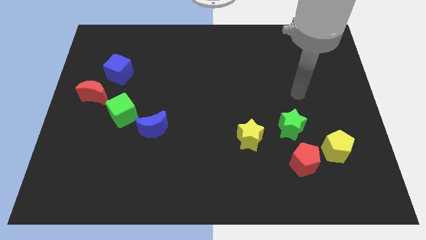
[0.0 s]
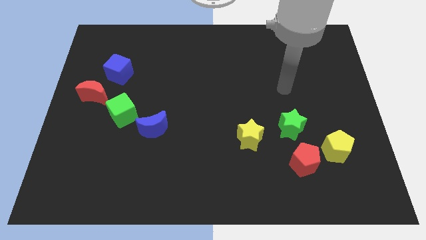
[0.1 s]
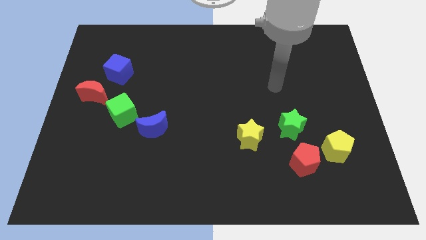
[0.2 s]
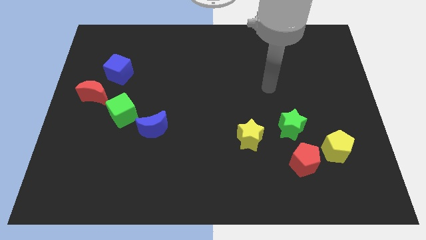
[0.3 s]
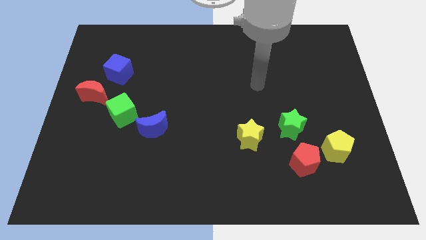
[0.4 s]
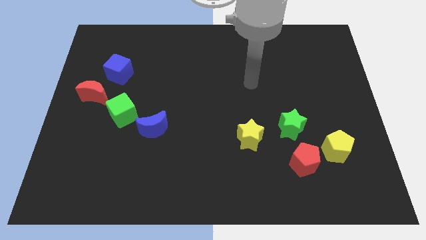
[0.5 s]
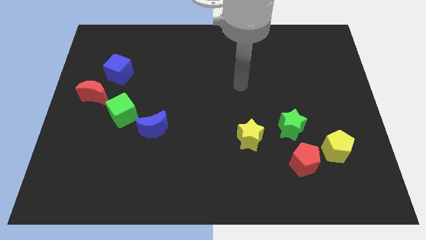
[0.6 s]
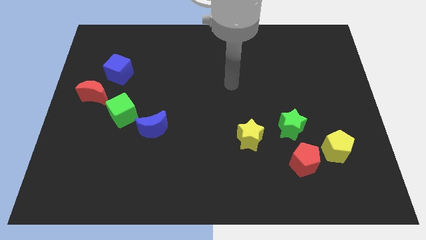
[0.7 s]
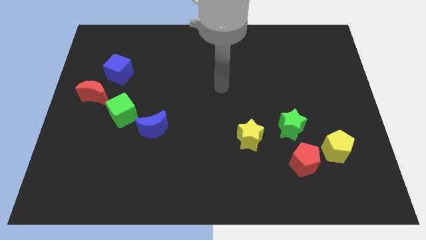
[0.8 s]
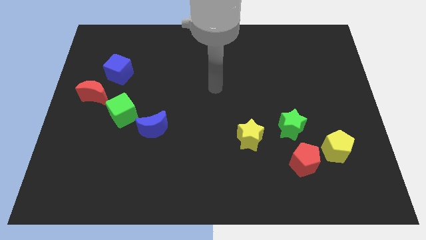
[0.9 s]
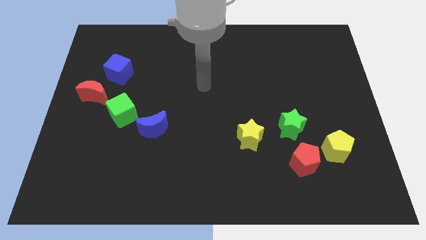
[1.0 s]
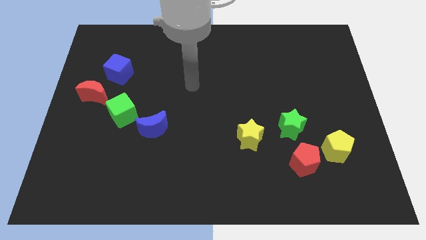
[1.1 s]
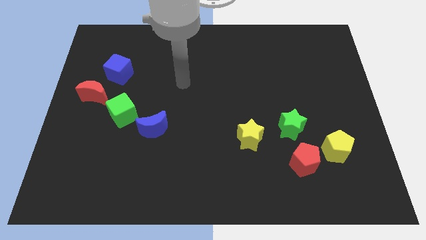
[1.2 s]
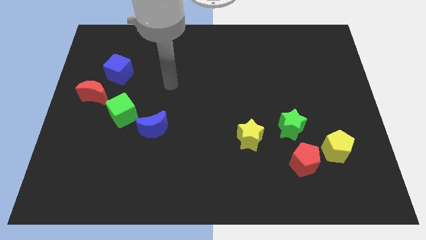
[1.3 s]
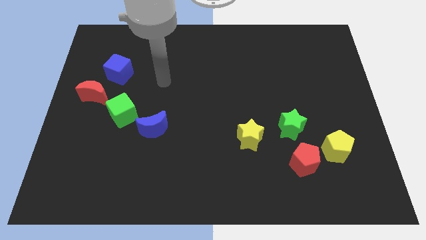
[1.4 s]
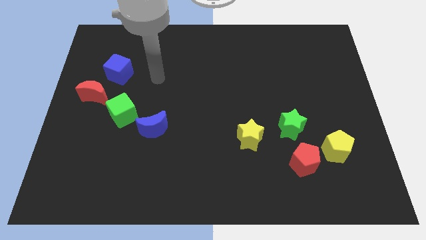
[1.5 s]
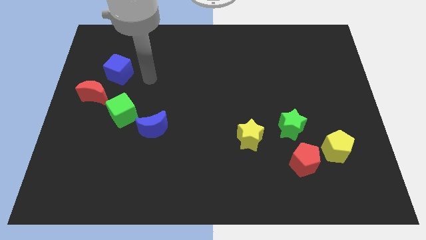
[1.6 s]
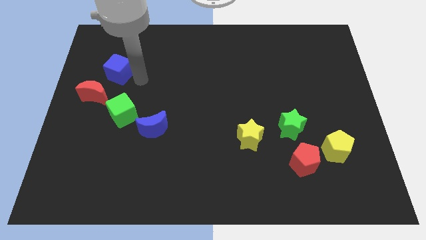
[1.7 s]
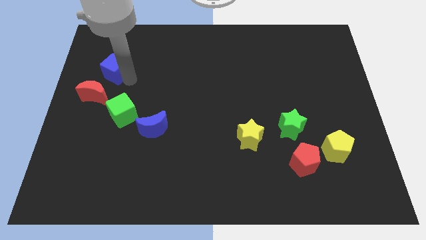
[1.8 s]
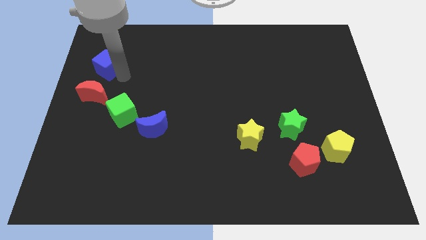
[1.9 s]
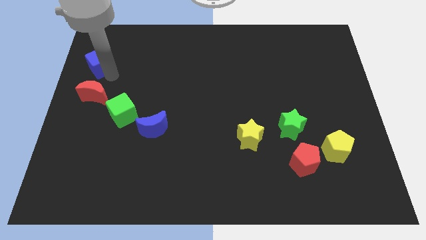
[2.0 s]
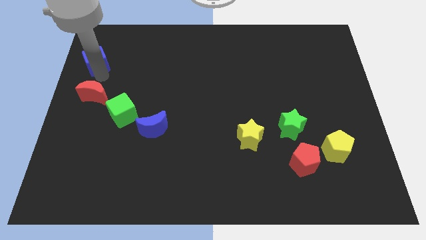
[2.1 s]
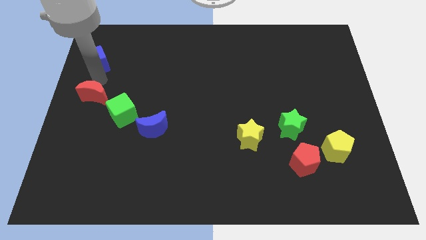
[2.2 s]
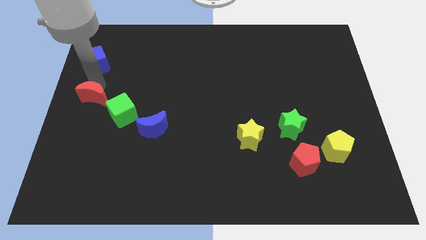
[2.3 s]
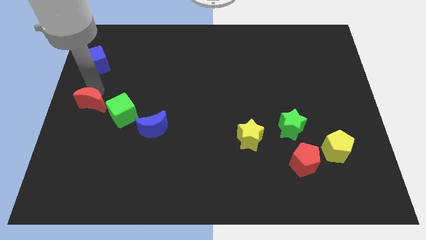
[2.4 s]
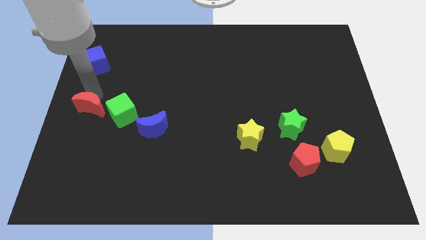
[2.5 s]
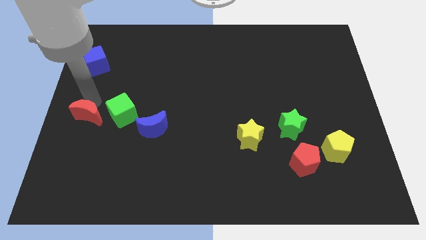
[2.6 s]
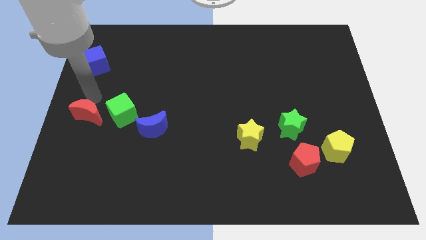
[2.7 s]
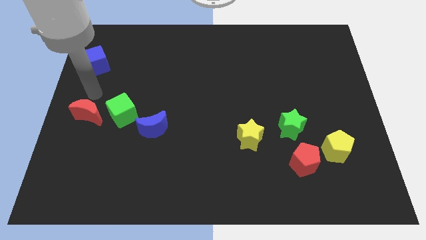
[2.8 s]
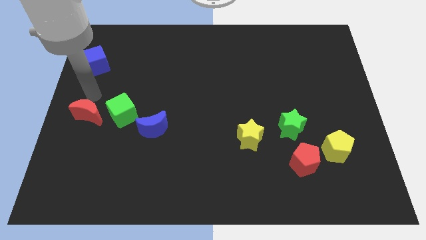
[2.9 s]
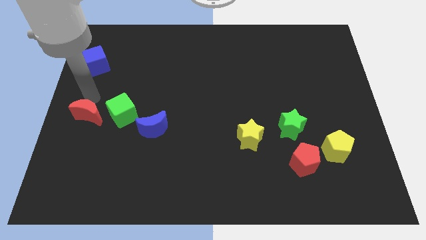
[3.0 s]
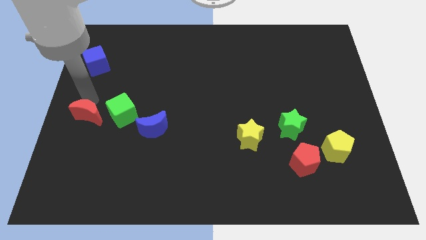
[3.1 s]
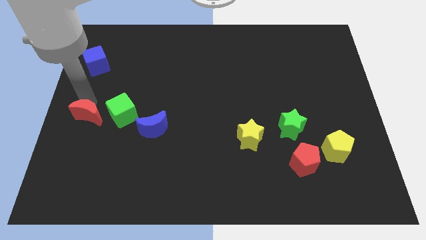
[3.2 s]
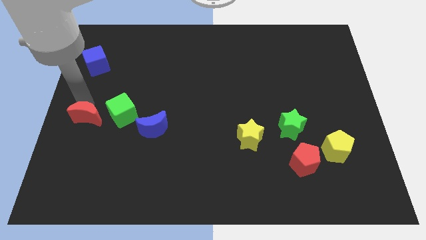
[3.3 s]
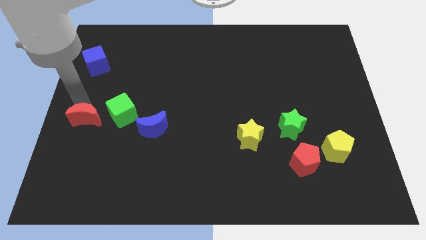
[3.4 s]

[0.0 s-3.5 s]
push the red moon down somewhat

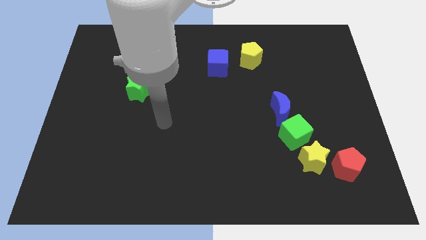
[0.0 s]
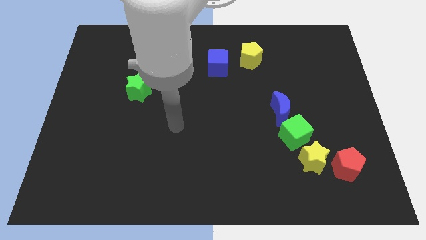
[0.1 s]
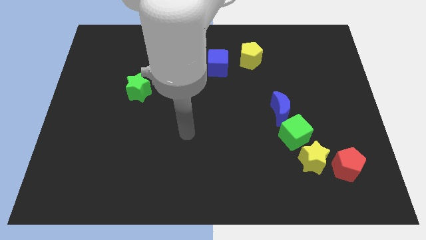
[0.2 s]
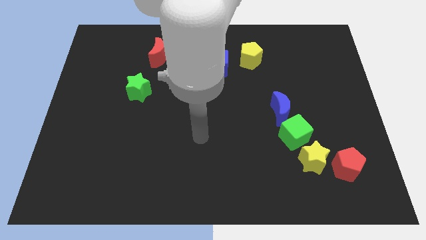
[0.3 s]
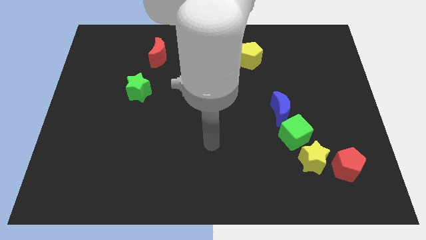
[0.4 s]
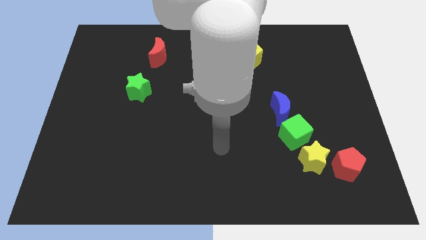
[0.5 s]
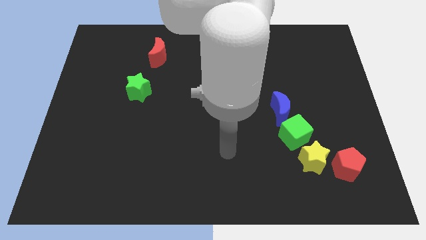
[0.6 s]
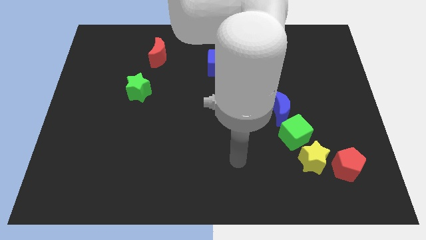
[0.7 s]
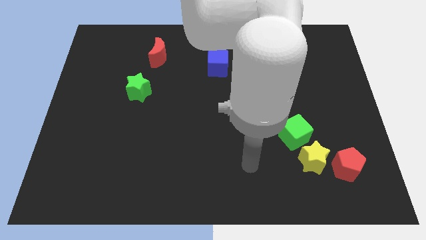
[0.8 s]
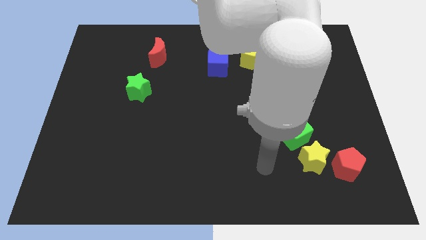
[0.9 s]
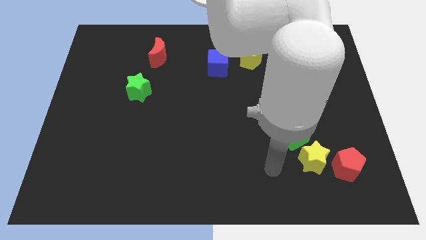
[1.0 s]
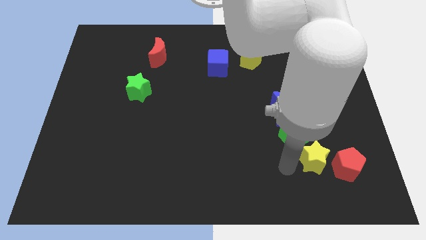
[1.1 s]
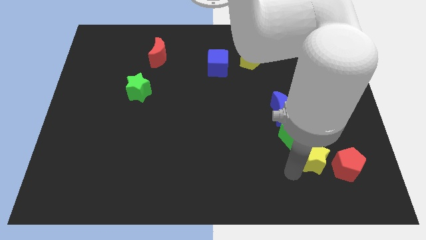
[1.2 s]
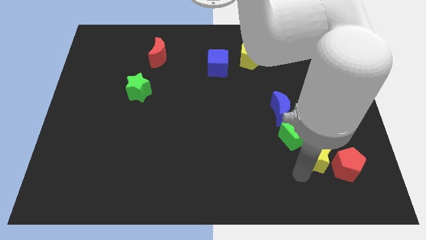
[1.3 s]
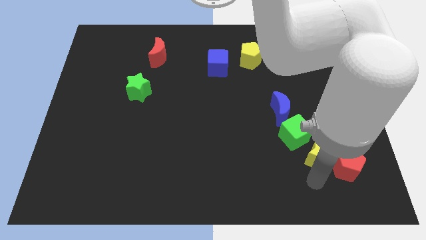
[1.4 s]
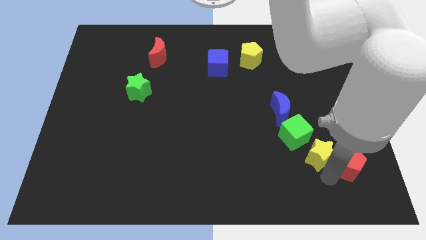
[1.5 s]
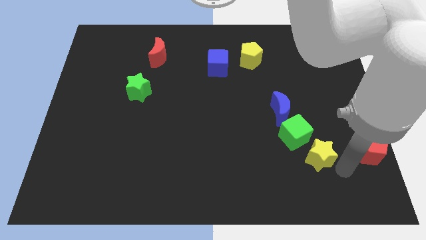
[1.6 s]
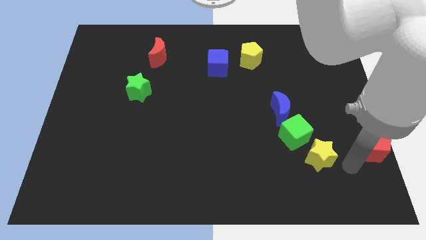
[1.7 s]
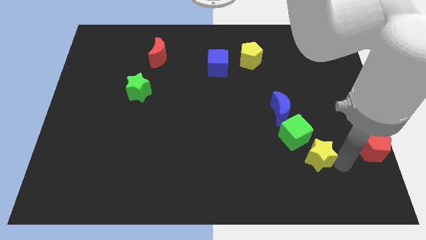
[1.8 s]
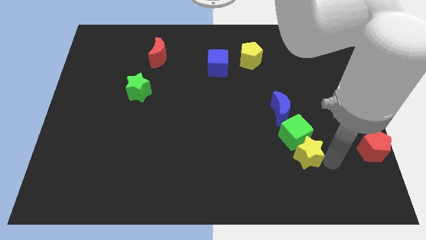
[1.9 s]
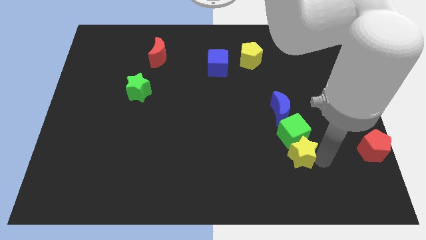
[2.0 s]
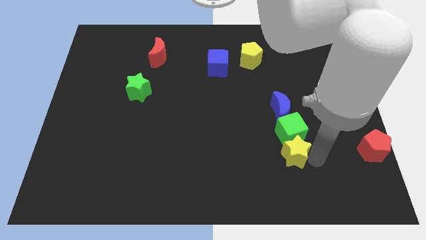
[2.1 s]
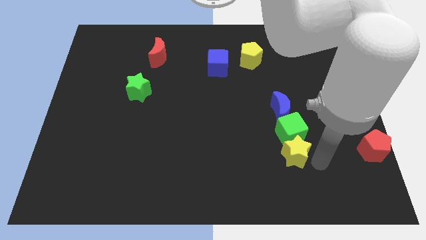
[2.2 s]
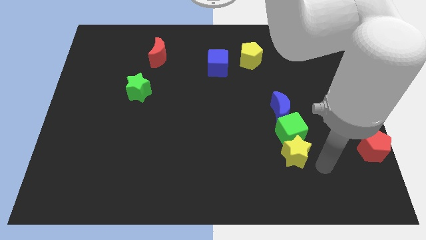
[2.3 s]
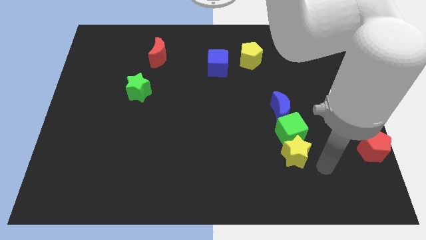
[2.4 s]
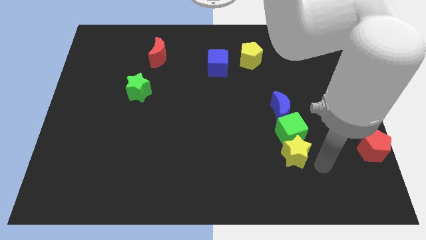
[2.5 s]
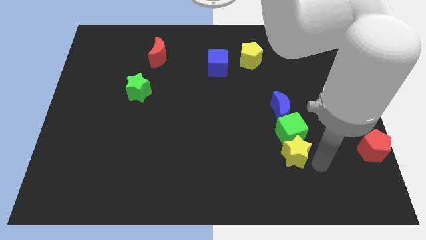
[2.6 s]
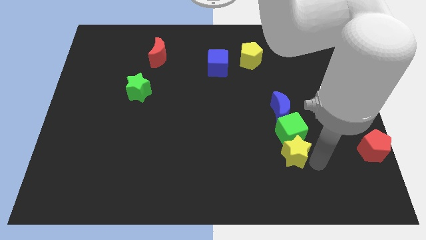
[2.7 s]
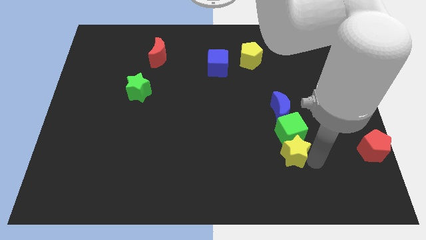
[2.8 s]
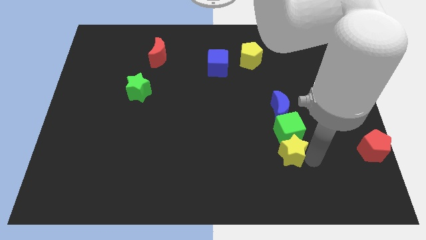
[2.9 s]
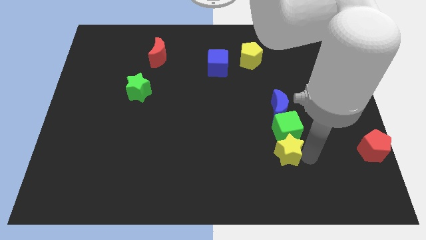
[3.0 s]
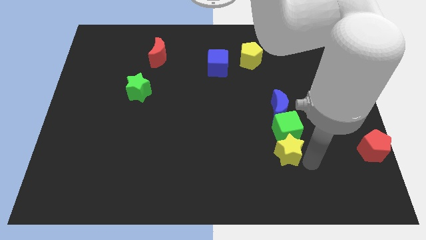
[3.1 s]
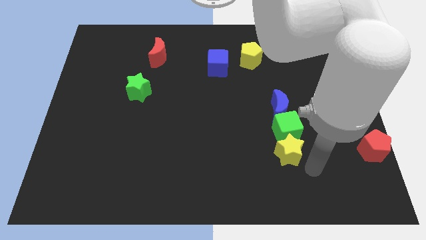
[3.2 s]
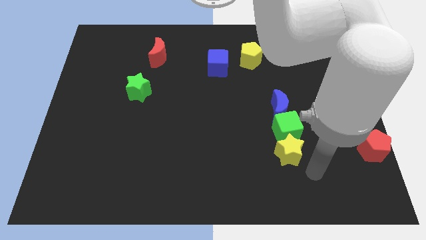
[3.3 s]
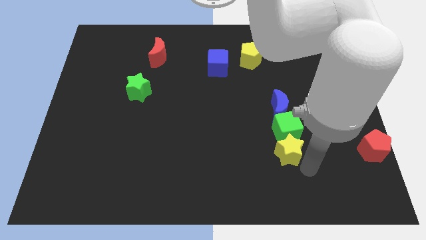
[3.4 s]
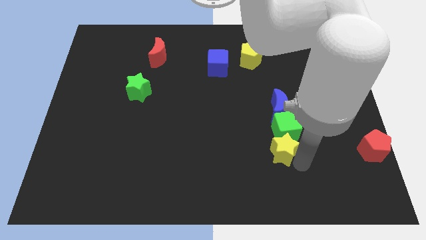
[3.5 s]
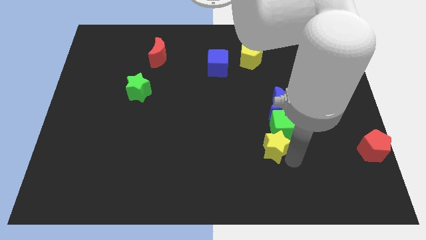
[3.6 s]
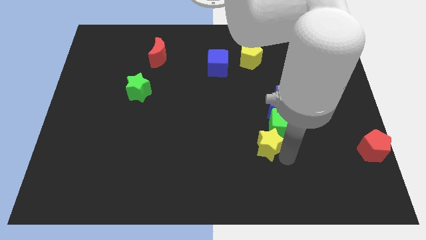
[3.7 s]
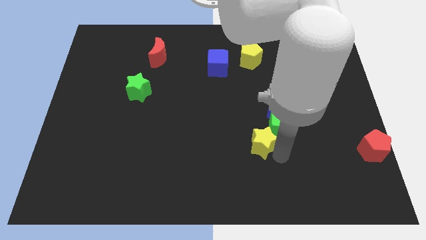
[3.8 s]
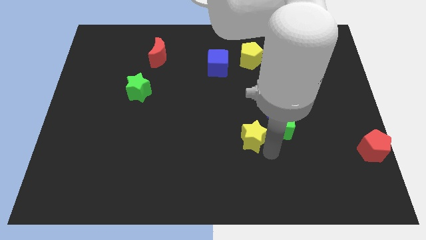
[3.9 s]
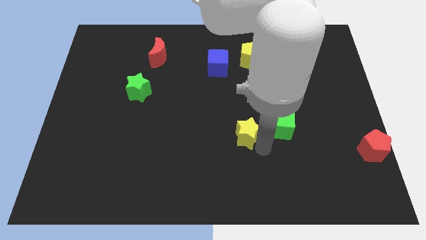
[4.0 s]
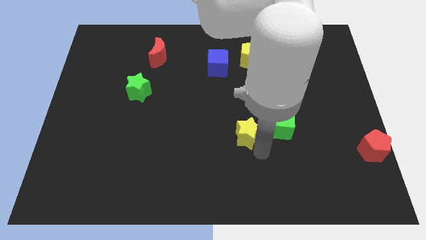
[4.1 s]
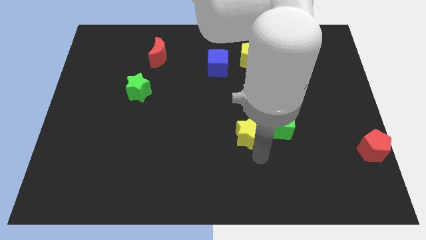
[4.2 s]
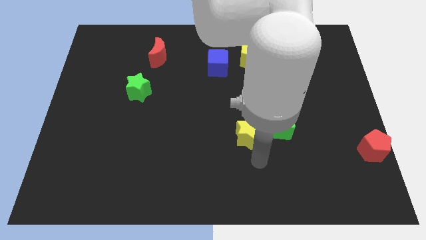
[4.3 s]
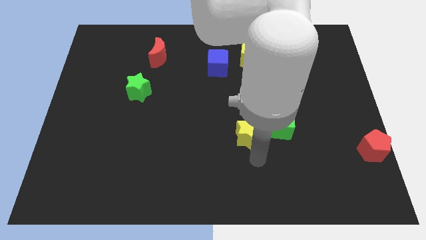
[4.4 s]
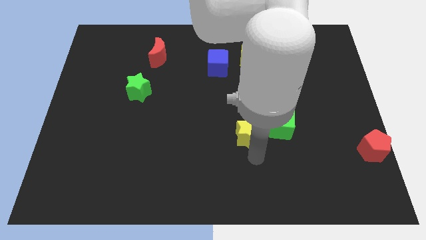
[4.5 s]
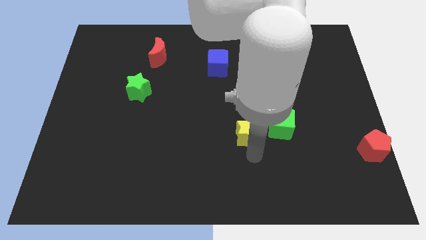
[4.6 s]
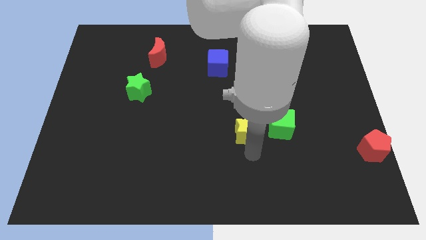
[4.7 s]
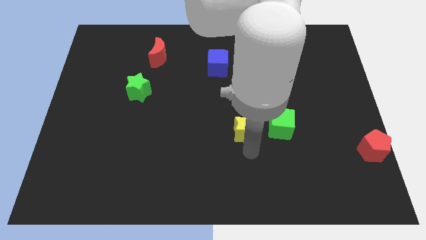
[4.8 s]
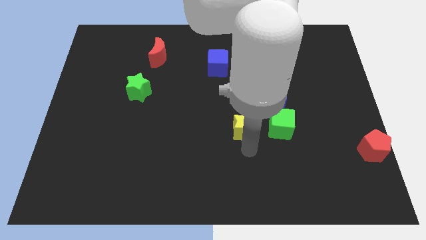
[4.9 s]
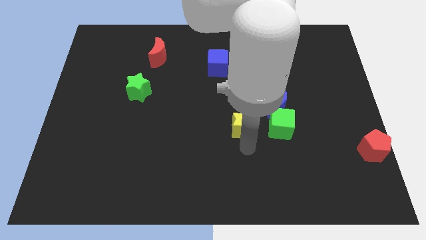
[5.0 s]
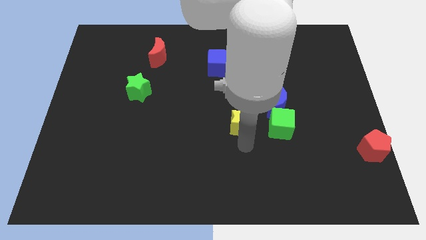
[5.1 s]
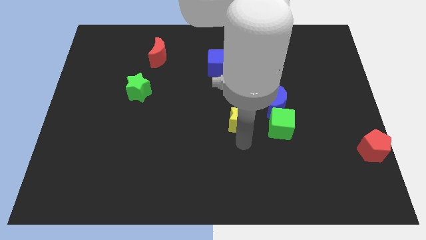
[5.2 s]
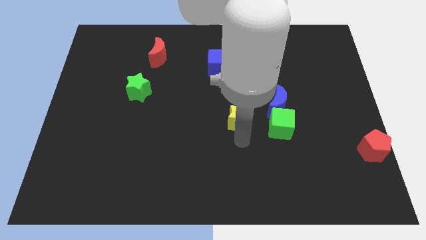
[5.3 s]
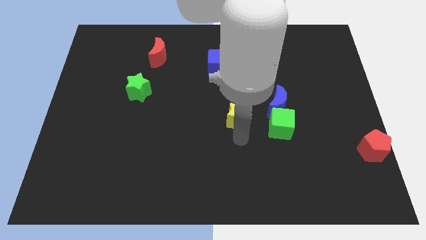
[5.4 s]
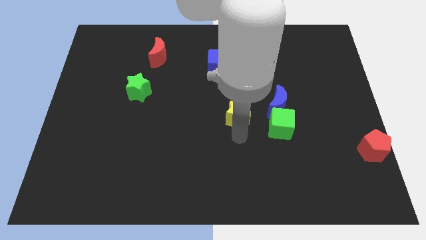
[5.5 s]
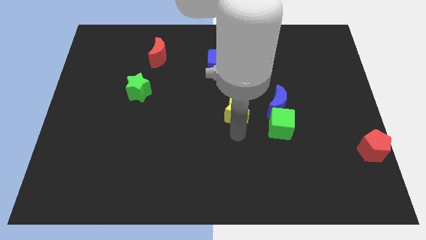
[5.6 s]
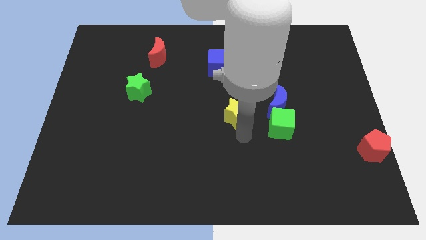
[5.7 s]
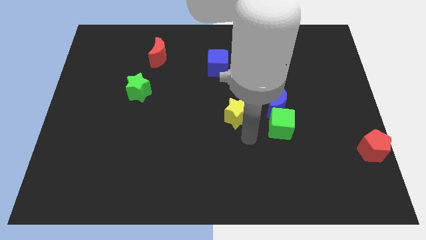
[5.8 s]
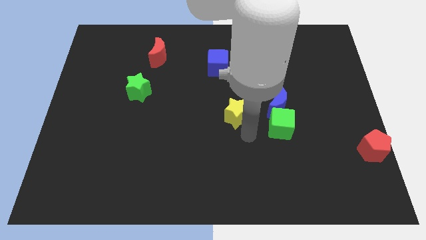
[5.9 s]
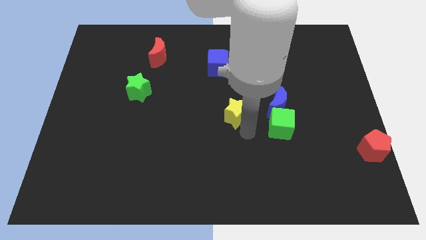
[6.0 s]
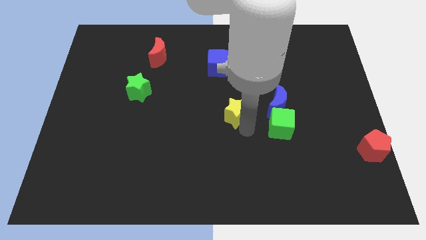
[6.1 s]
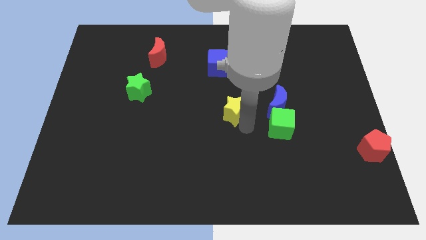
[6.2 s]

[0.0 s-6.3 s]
move the yellow star up and to the left
